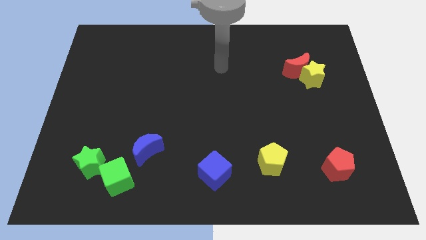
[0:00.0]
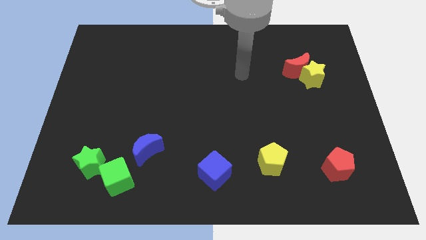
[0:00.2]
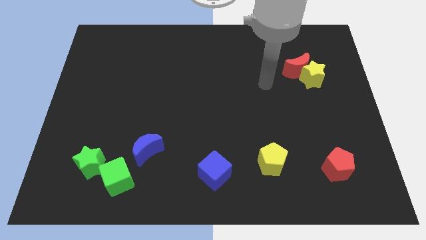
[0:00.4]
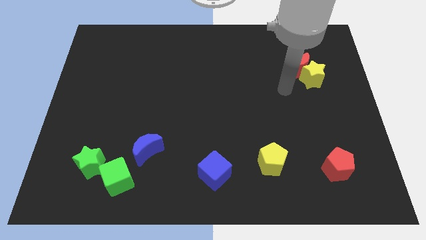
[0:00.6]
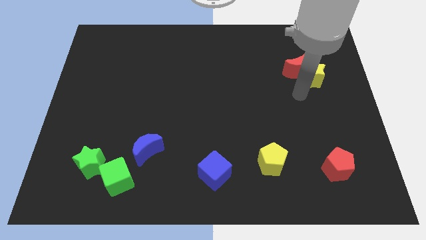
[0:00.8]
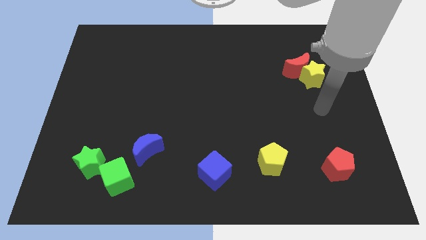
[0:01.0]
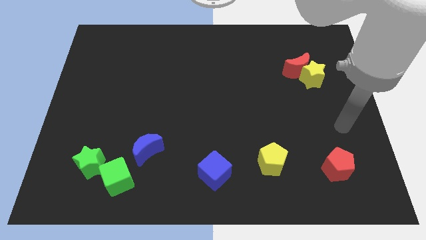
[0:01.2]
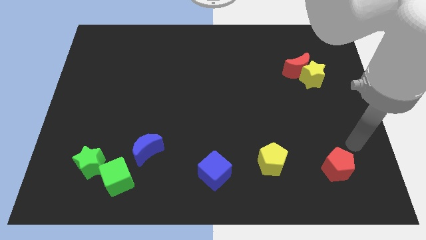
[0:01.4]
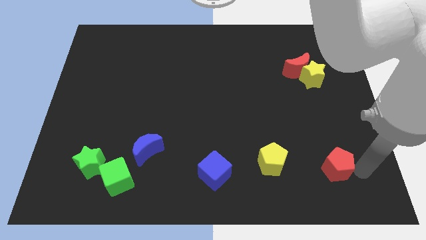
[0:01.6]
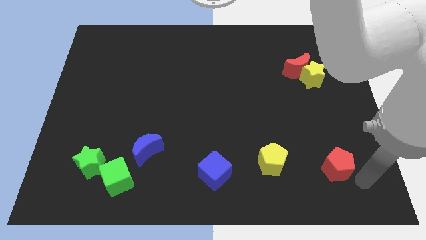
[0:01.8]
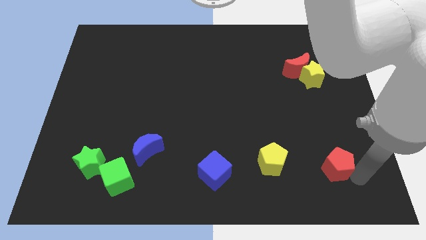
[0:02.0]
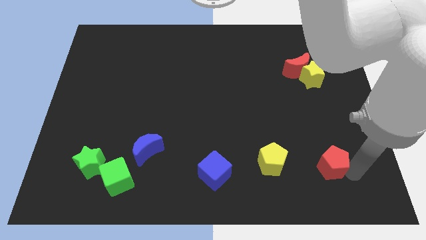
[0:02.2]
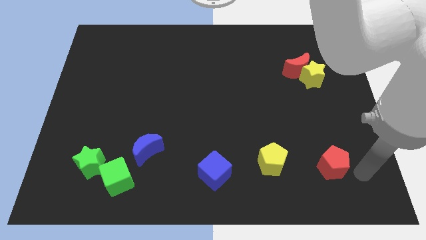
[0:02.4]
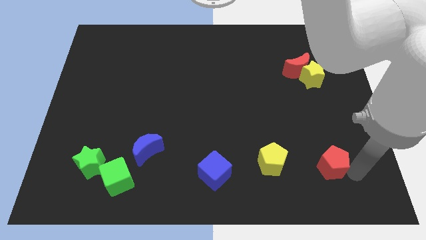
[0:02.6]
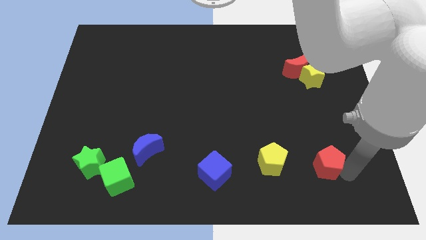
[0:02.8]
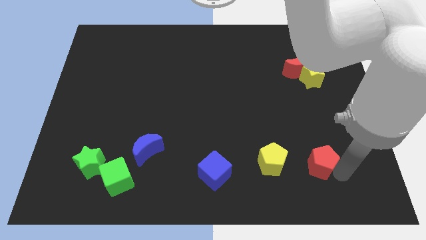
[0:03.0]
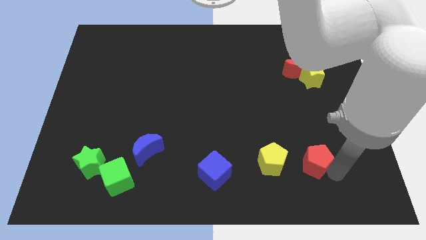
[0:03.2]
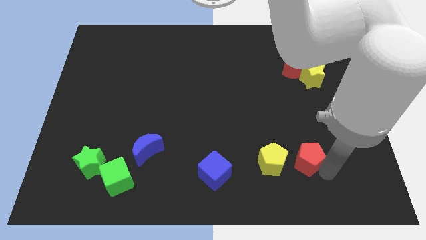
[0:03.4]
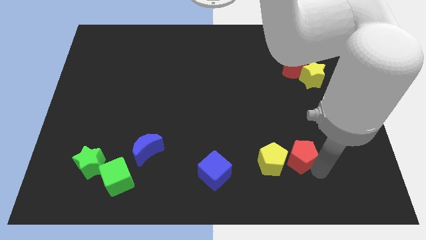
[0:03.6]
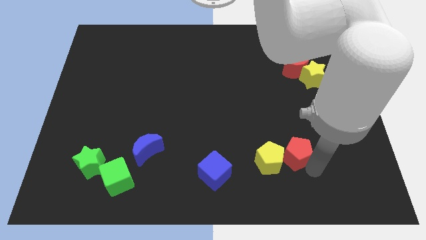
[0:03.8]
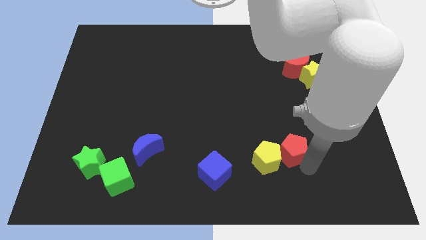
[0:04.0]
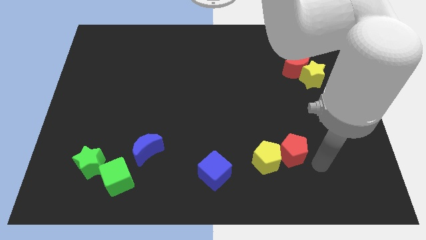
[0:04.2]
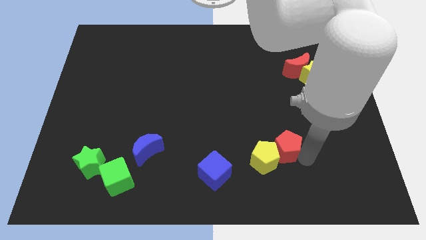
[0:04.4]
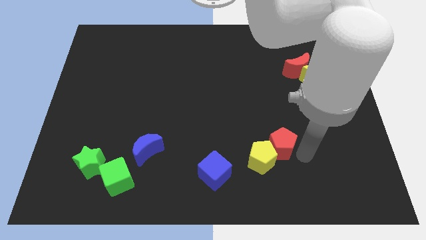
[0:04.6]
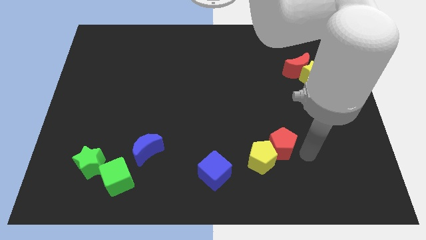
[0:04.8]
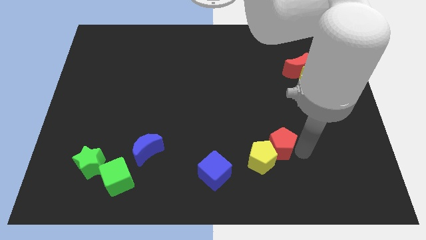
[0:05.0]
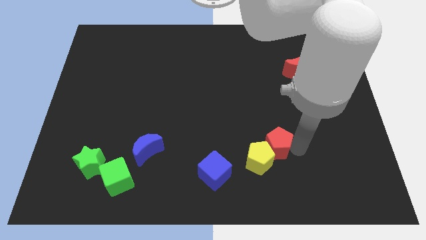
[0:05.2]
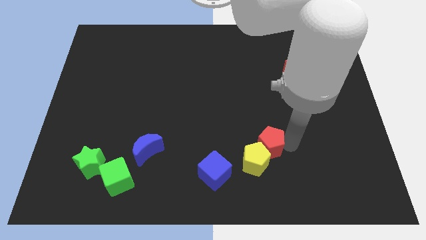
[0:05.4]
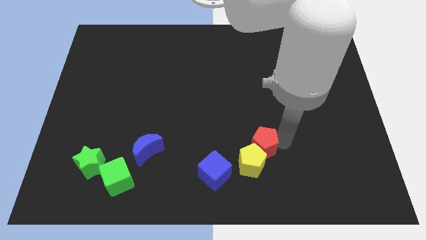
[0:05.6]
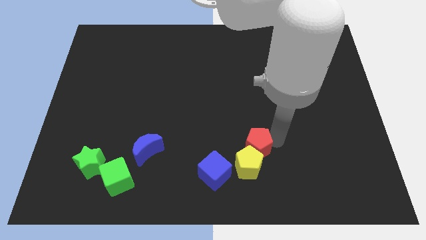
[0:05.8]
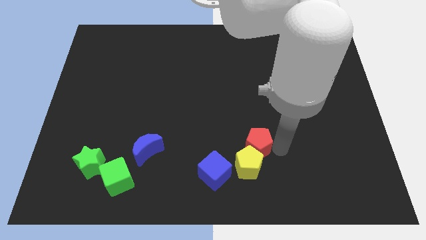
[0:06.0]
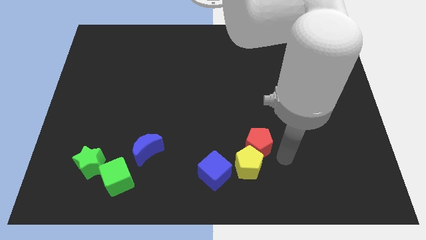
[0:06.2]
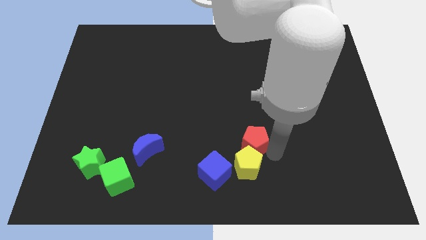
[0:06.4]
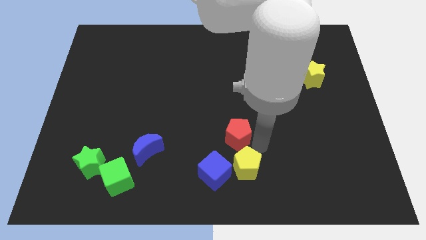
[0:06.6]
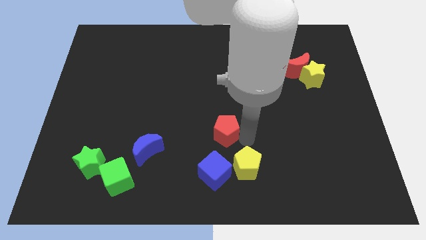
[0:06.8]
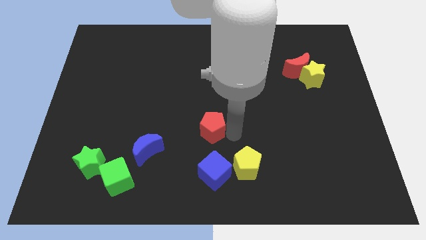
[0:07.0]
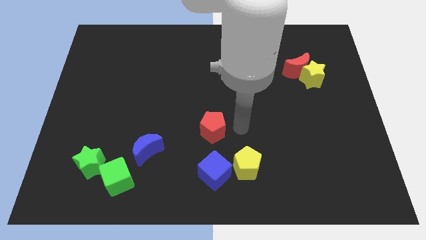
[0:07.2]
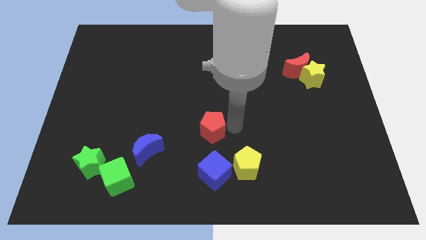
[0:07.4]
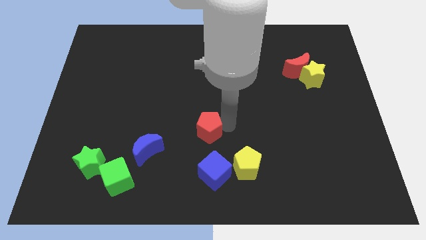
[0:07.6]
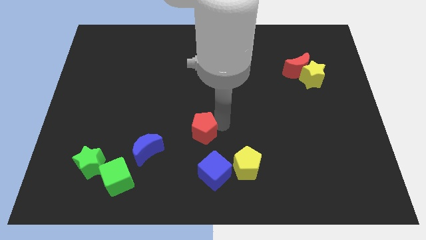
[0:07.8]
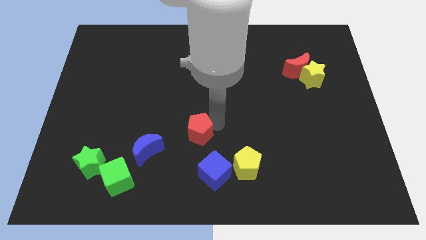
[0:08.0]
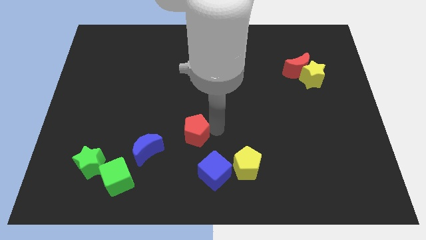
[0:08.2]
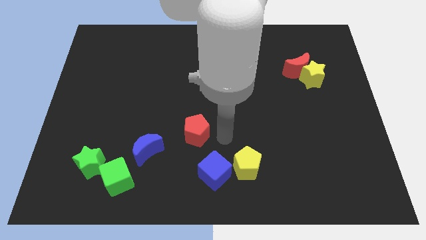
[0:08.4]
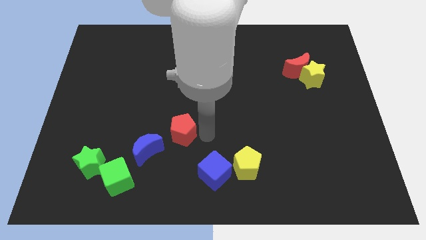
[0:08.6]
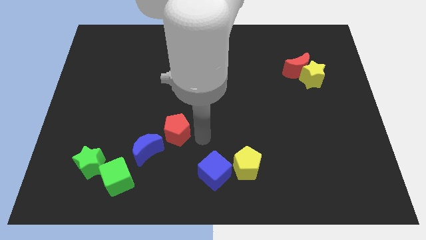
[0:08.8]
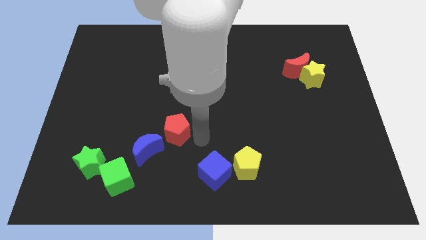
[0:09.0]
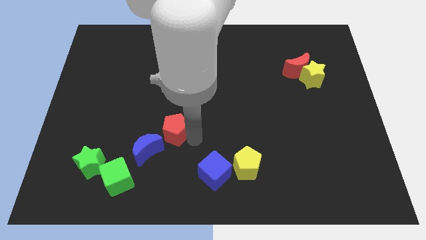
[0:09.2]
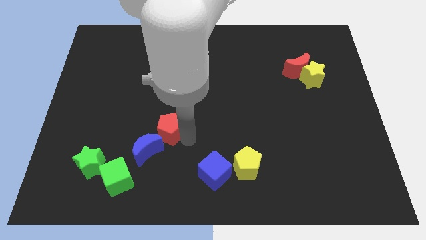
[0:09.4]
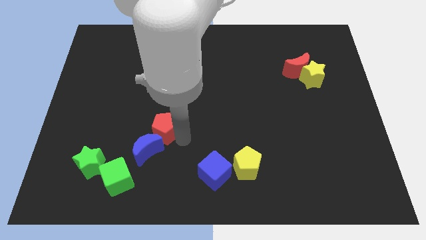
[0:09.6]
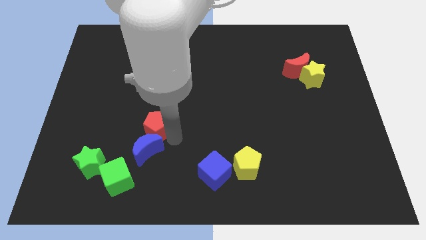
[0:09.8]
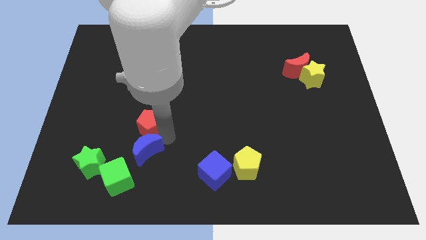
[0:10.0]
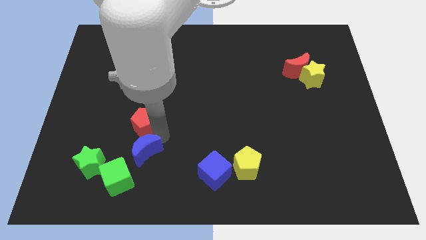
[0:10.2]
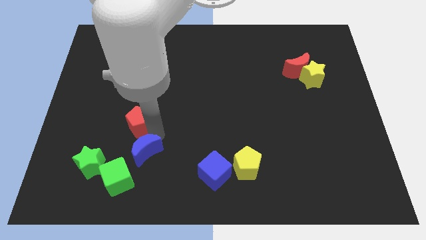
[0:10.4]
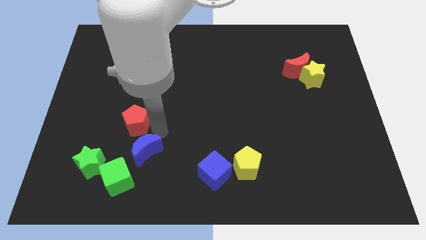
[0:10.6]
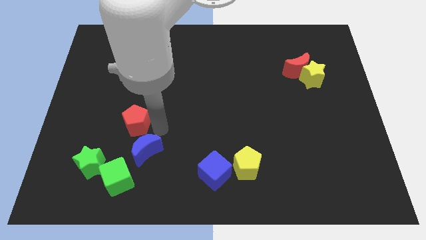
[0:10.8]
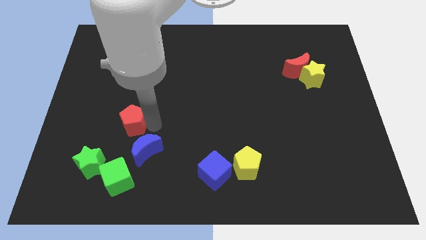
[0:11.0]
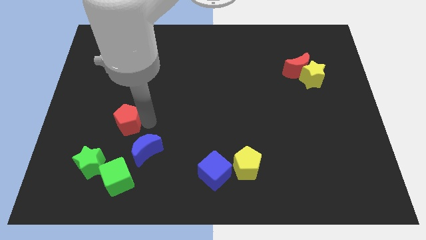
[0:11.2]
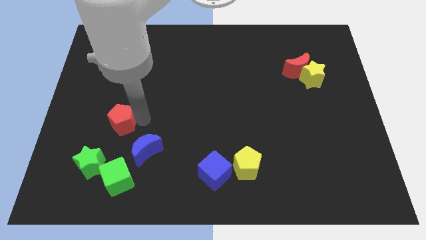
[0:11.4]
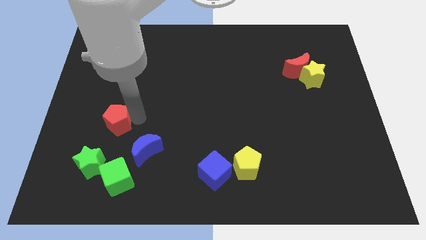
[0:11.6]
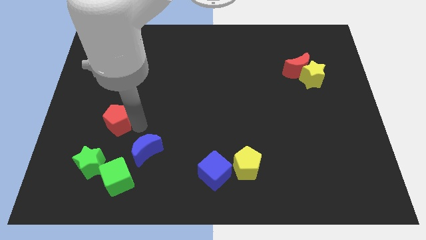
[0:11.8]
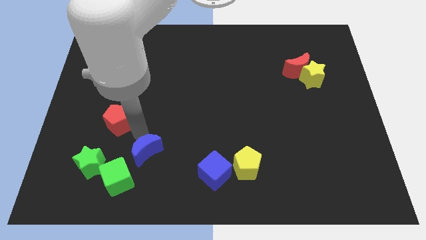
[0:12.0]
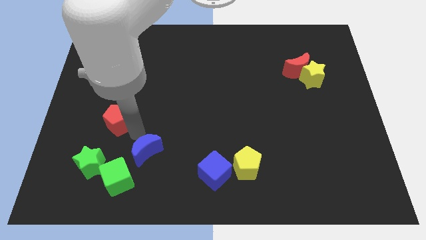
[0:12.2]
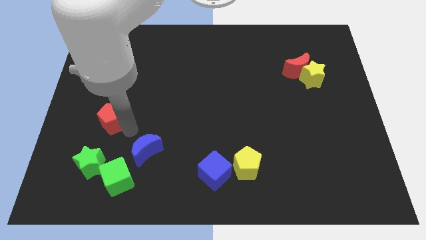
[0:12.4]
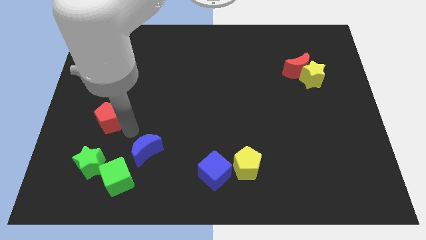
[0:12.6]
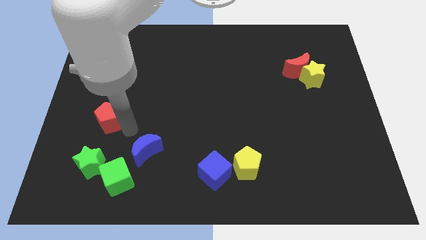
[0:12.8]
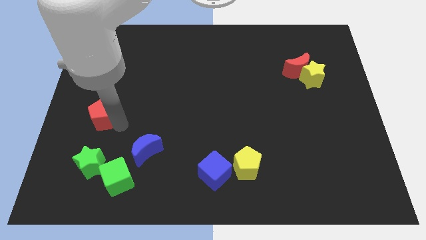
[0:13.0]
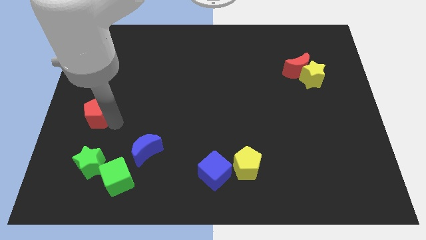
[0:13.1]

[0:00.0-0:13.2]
slide the red pentagon to the left side
